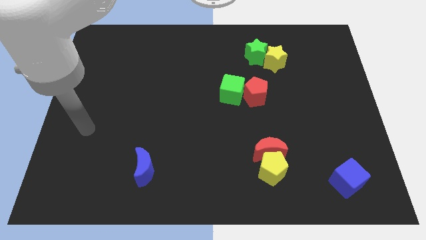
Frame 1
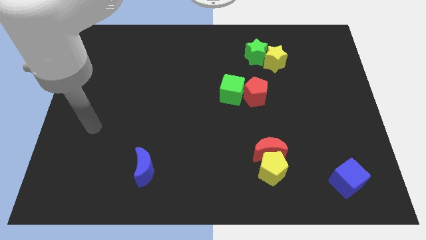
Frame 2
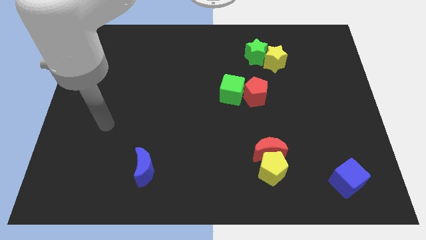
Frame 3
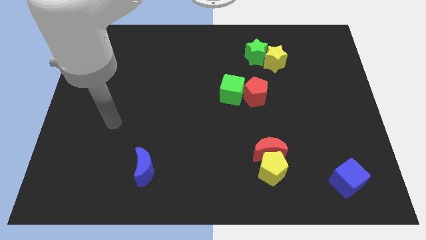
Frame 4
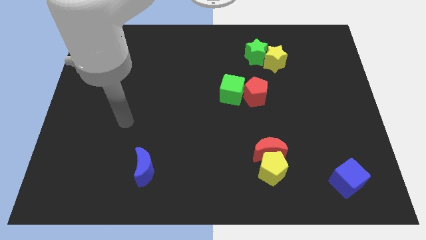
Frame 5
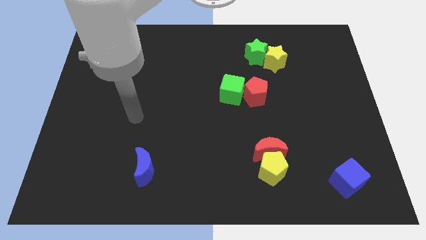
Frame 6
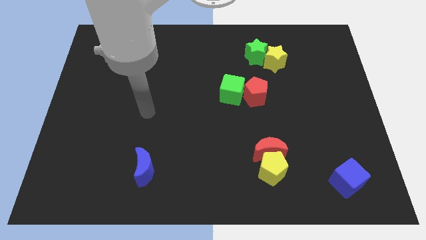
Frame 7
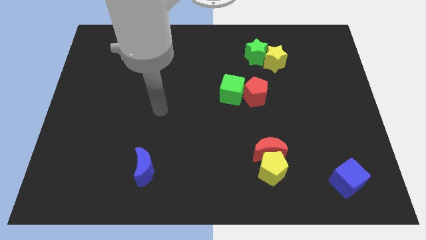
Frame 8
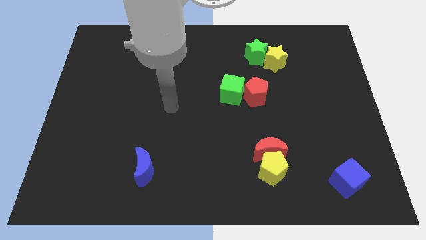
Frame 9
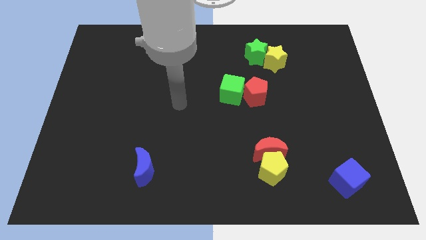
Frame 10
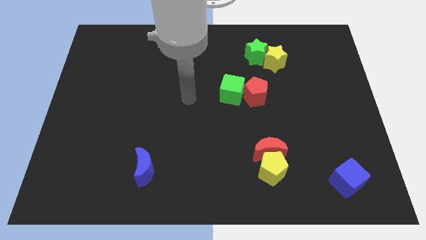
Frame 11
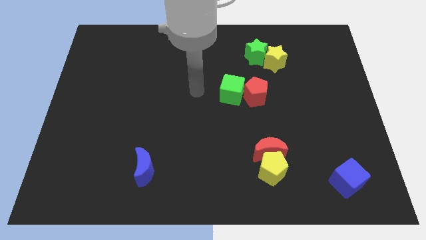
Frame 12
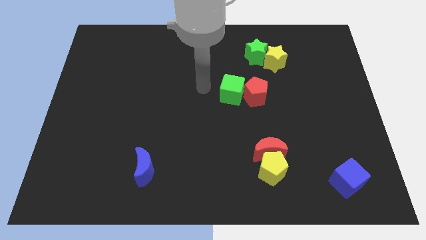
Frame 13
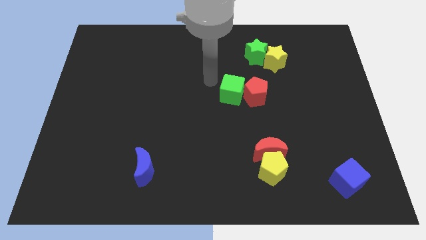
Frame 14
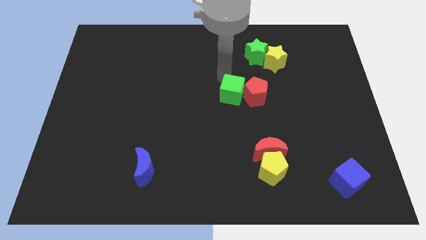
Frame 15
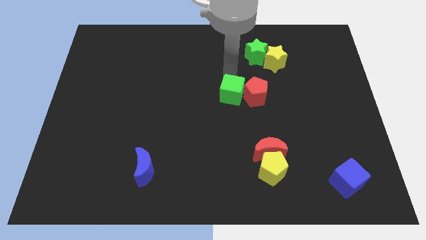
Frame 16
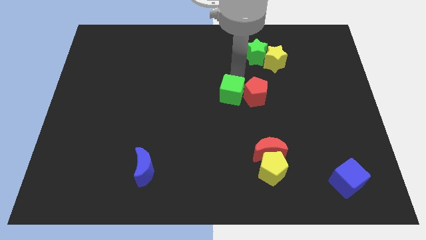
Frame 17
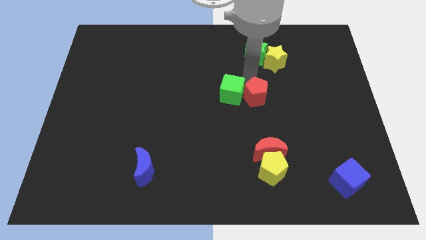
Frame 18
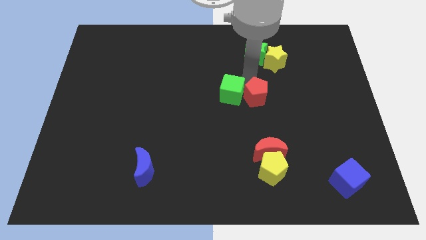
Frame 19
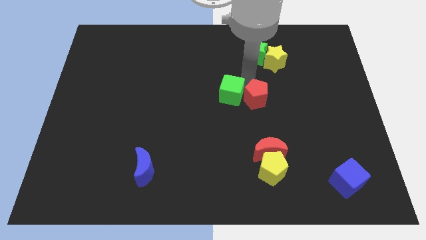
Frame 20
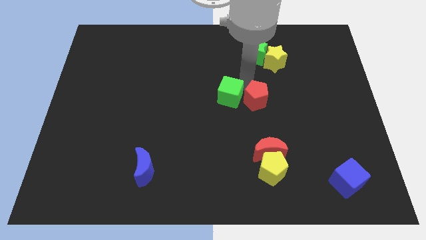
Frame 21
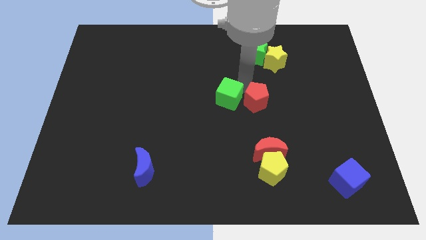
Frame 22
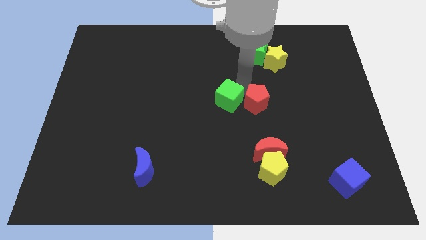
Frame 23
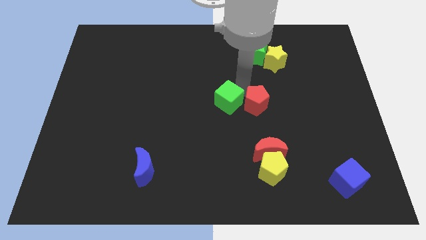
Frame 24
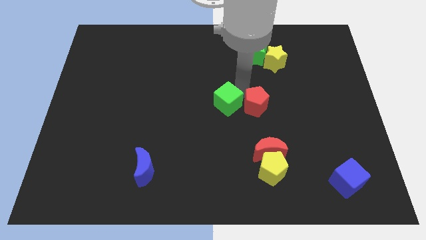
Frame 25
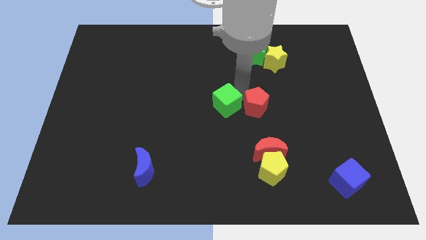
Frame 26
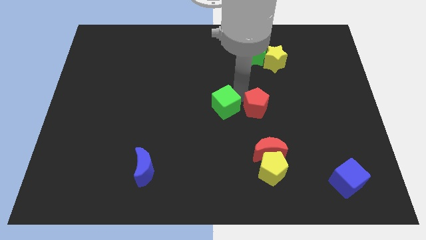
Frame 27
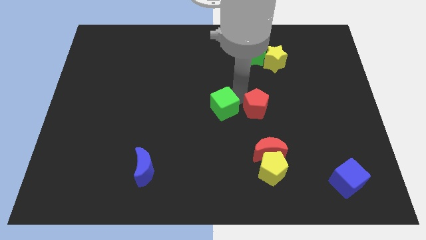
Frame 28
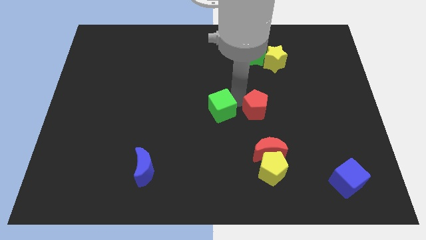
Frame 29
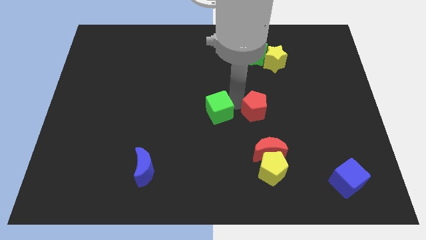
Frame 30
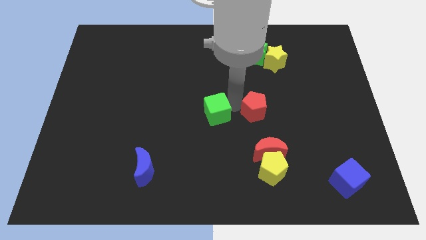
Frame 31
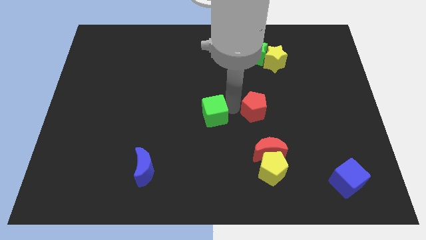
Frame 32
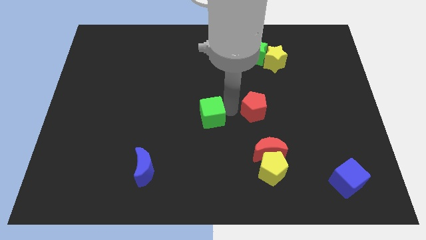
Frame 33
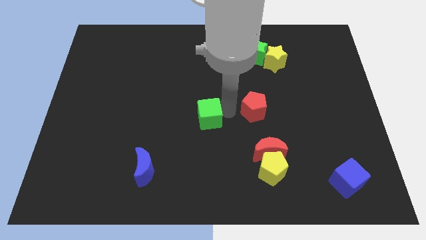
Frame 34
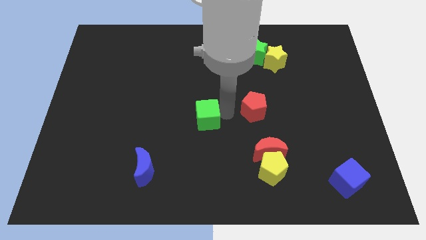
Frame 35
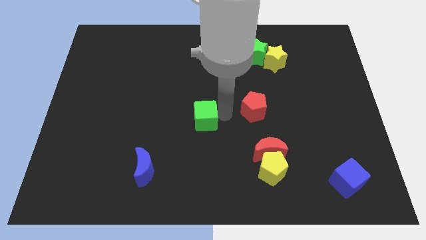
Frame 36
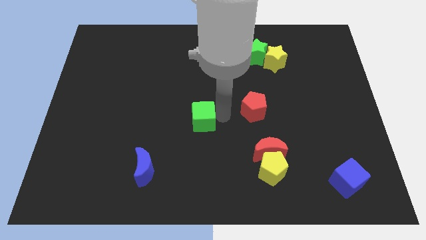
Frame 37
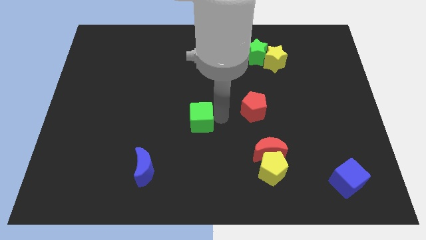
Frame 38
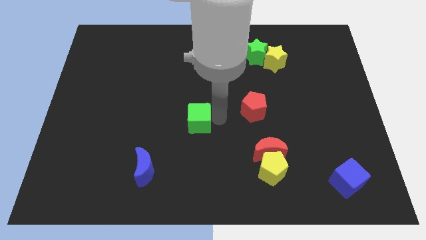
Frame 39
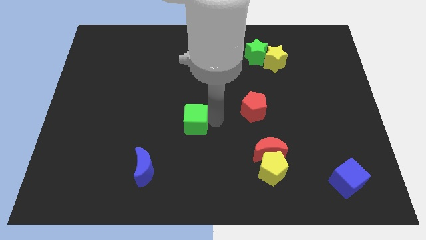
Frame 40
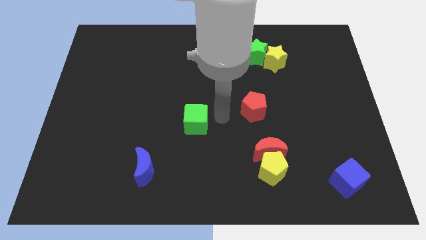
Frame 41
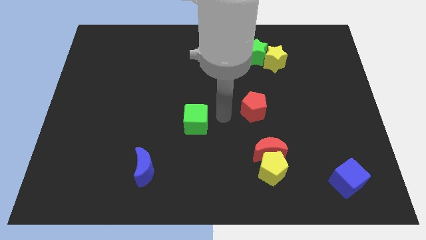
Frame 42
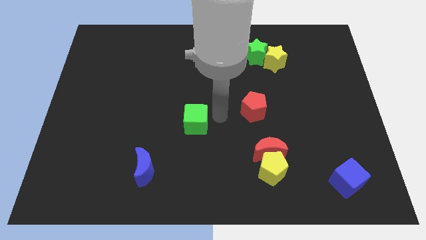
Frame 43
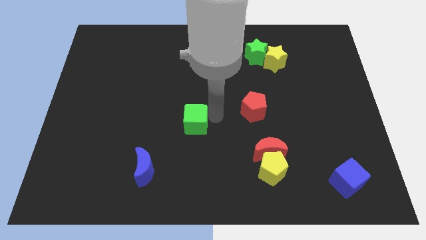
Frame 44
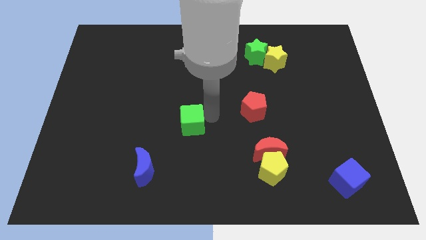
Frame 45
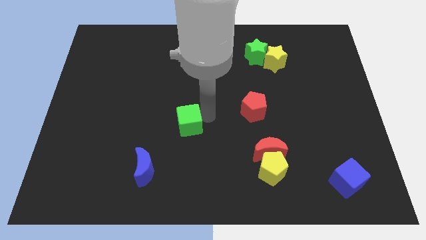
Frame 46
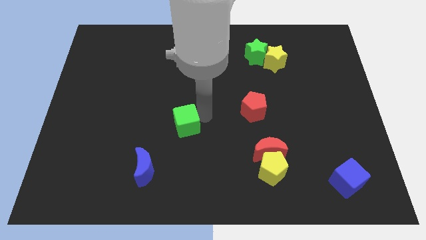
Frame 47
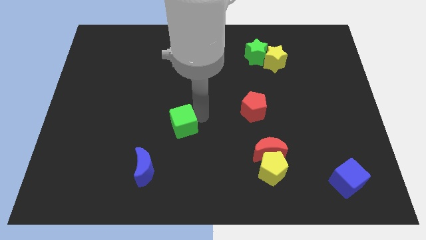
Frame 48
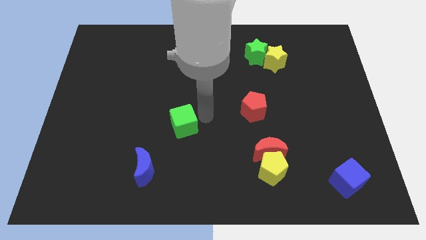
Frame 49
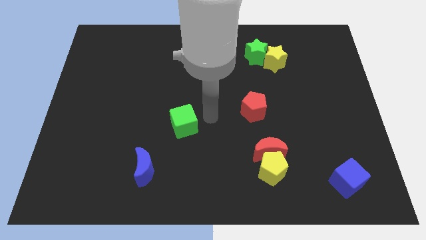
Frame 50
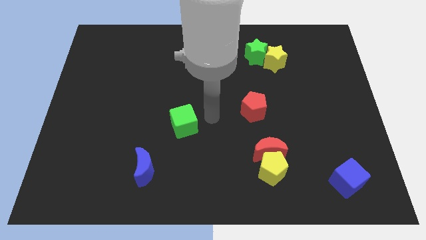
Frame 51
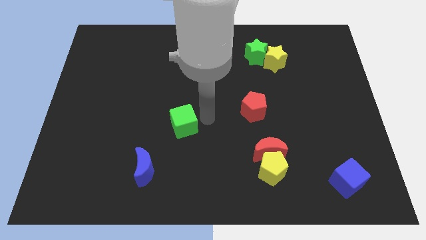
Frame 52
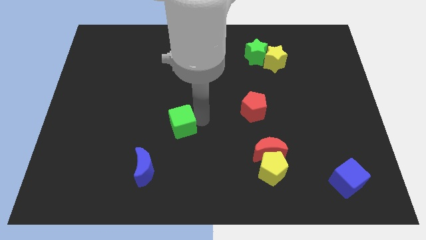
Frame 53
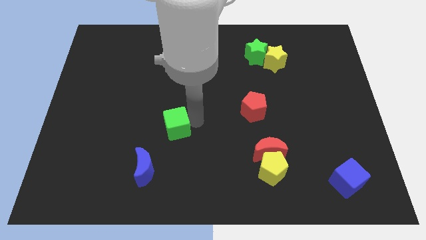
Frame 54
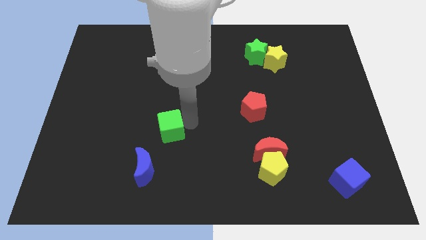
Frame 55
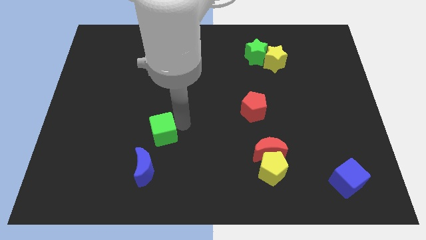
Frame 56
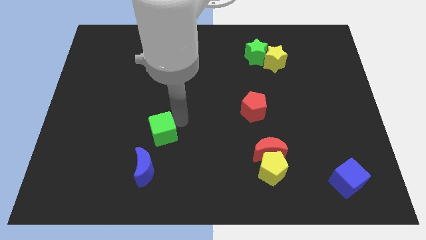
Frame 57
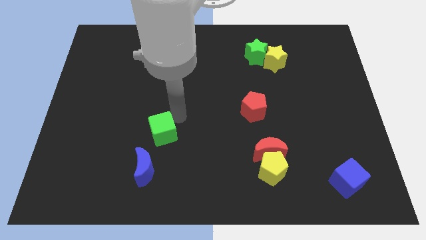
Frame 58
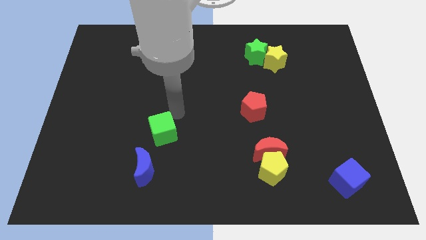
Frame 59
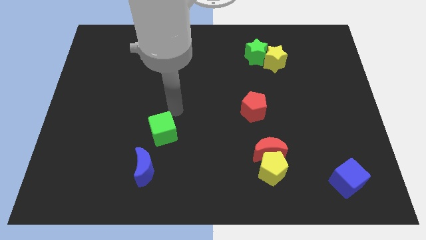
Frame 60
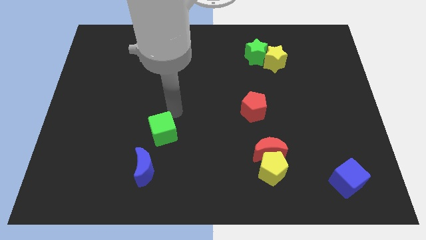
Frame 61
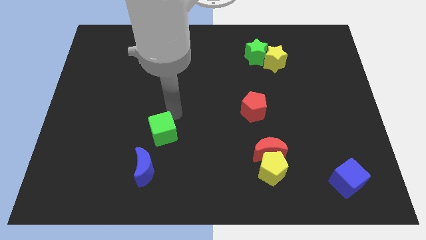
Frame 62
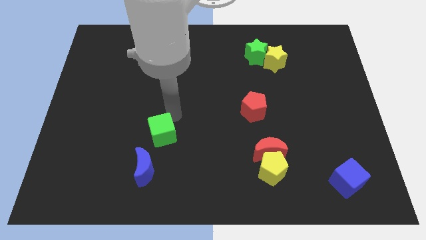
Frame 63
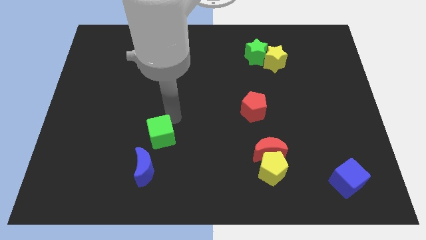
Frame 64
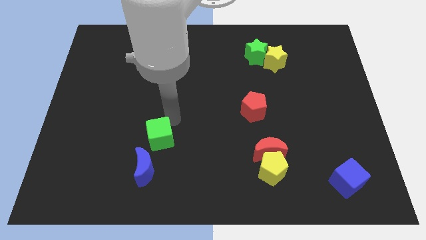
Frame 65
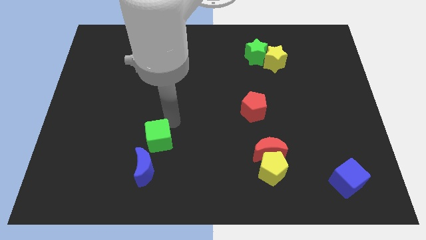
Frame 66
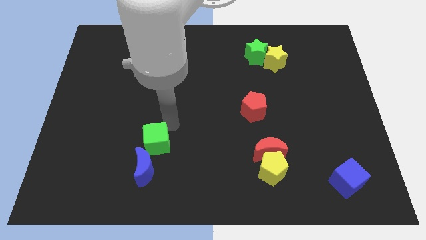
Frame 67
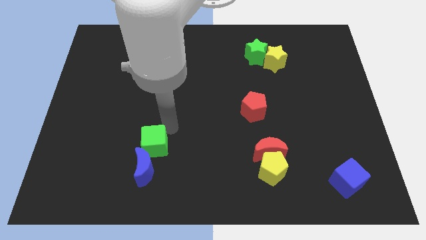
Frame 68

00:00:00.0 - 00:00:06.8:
move the green cube to the blue moon

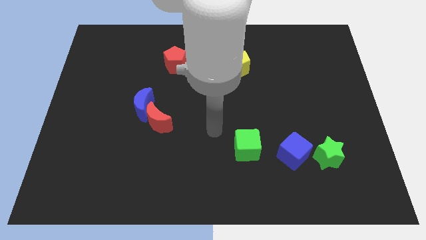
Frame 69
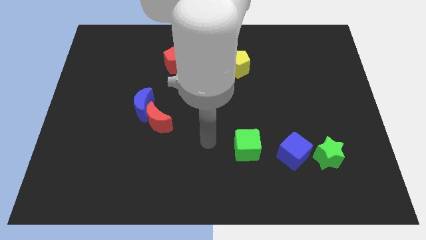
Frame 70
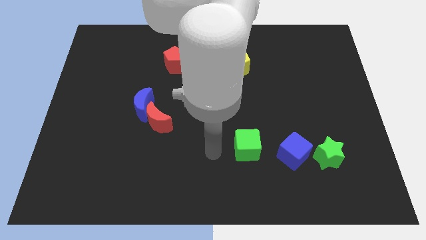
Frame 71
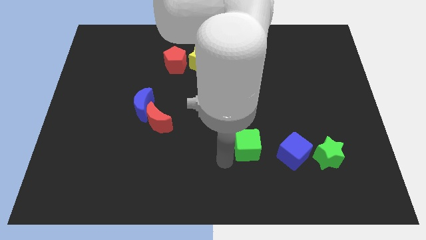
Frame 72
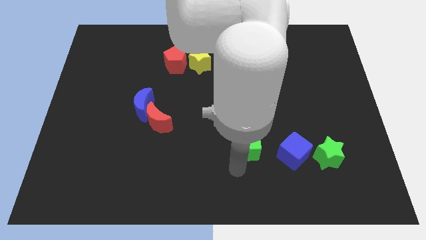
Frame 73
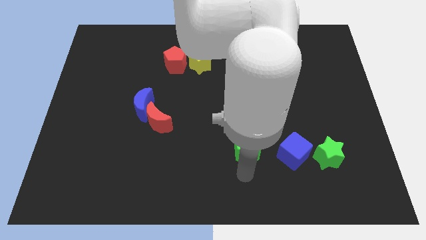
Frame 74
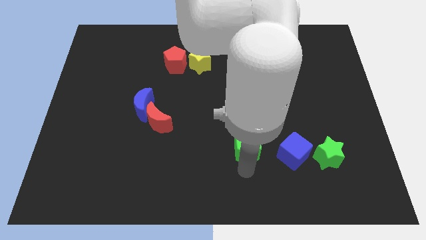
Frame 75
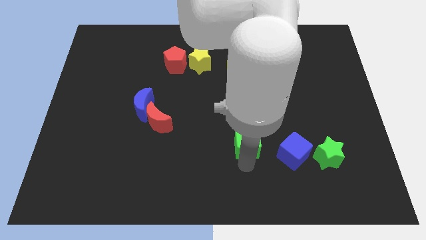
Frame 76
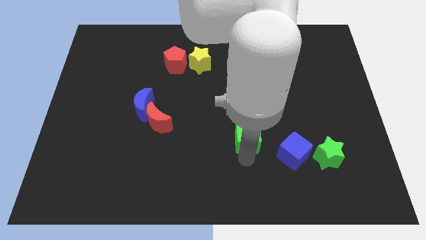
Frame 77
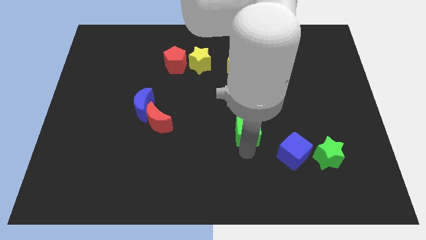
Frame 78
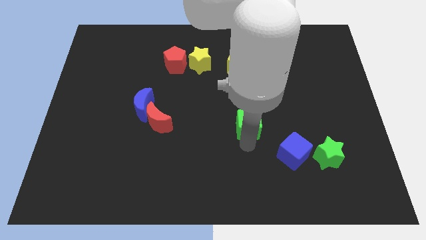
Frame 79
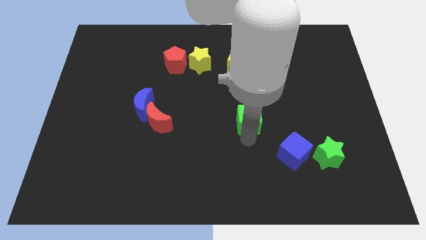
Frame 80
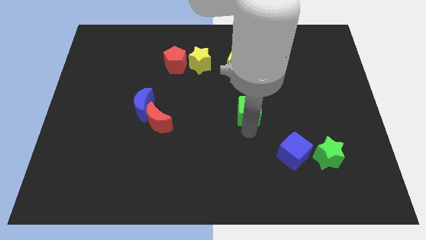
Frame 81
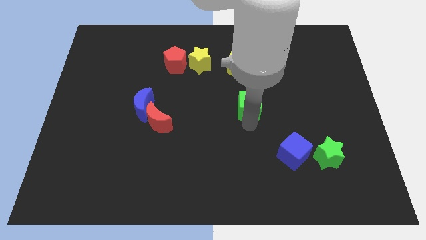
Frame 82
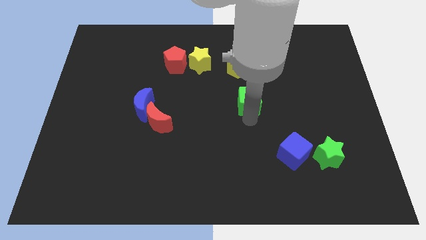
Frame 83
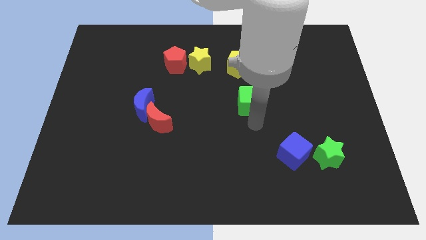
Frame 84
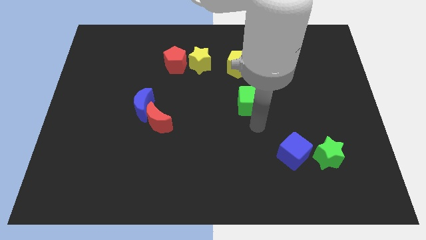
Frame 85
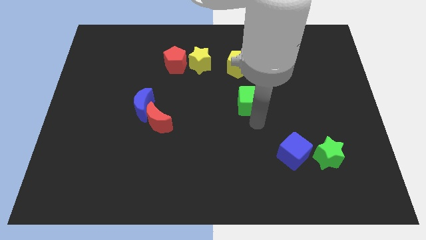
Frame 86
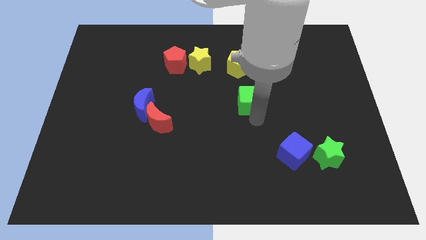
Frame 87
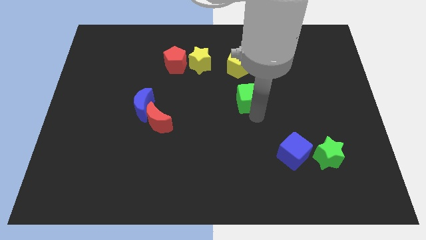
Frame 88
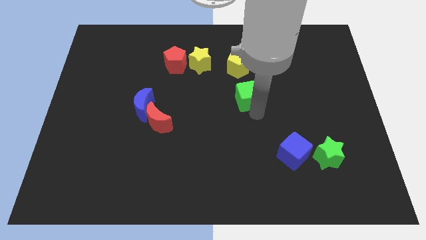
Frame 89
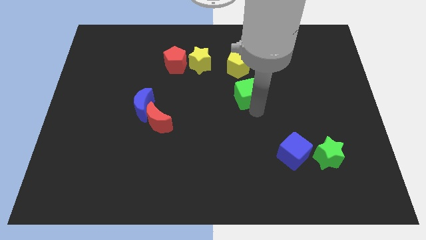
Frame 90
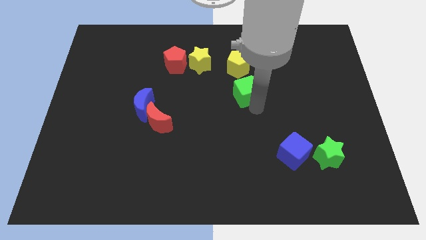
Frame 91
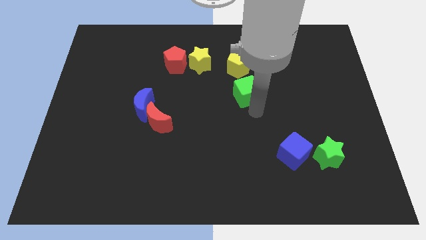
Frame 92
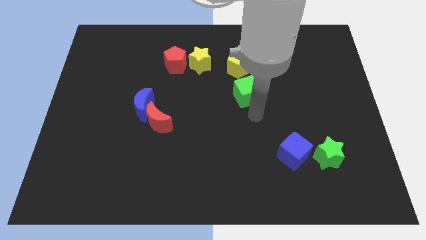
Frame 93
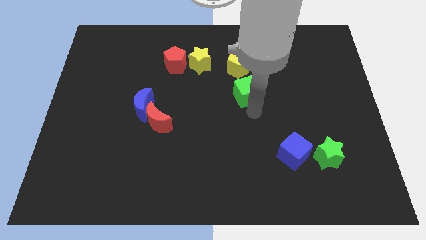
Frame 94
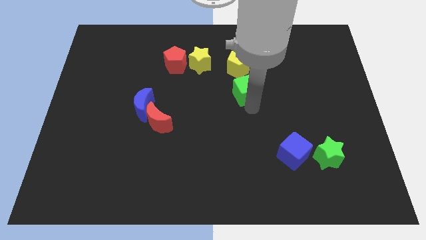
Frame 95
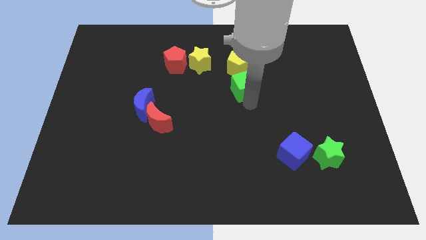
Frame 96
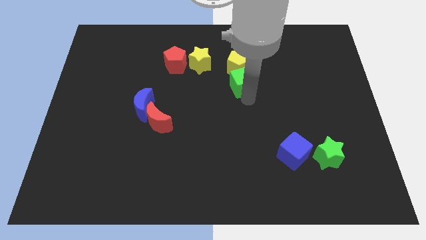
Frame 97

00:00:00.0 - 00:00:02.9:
slide the green cube close to the yellow pentagon
